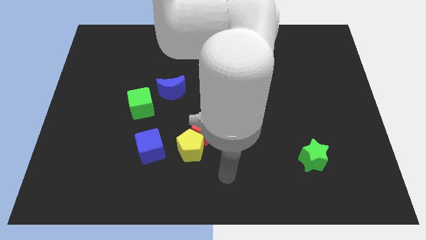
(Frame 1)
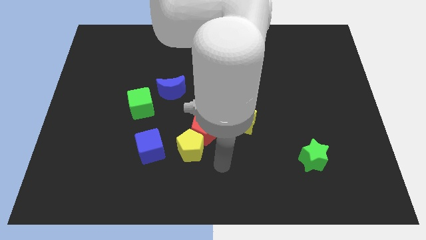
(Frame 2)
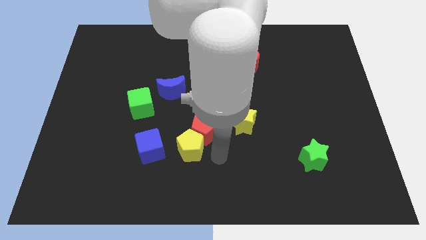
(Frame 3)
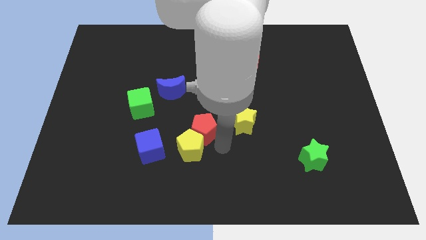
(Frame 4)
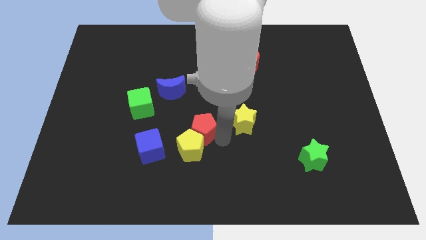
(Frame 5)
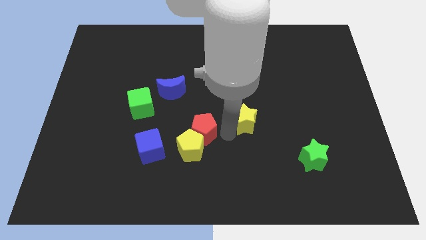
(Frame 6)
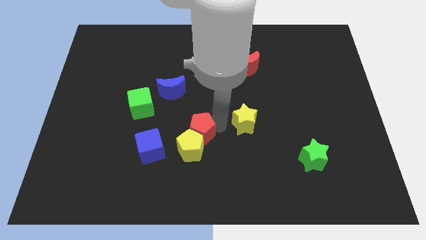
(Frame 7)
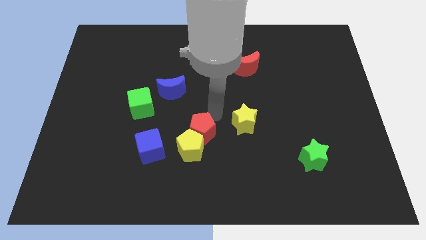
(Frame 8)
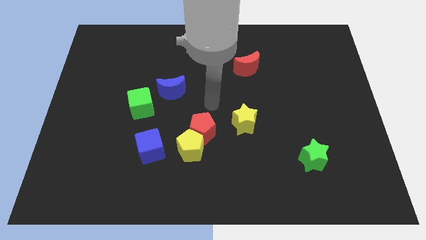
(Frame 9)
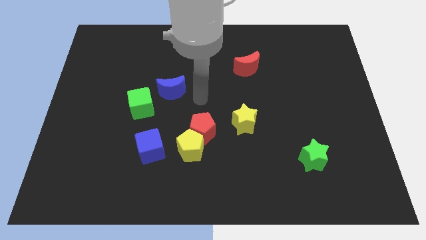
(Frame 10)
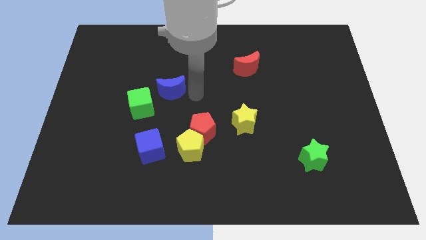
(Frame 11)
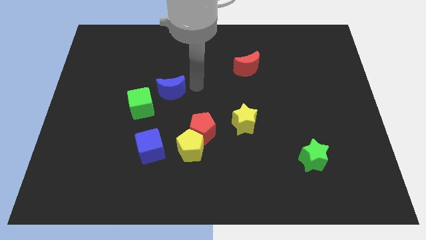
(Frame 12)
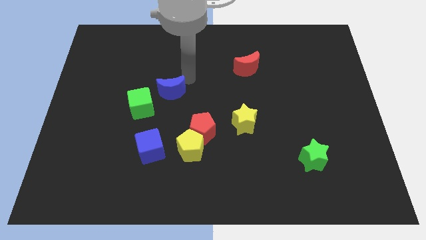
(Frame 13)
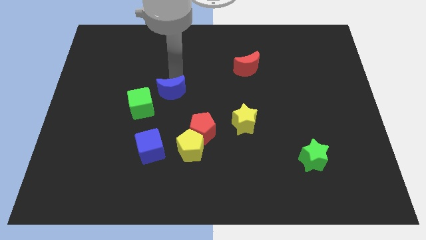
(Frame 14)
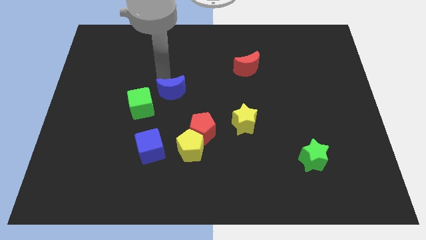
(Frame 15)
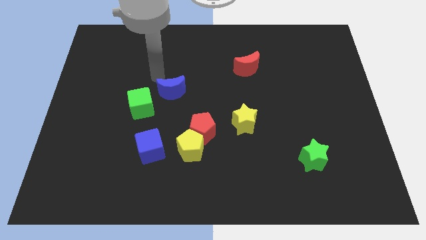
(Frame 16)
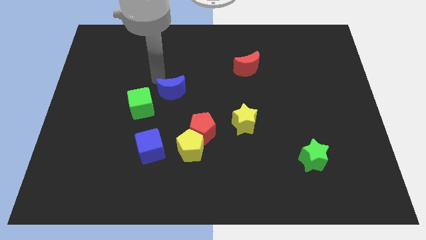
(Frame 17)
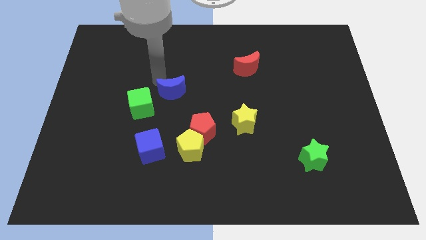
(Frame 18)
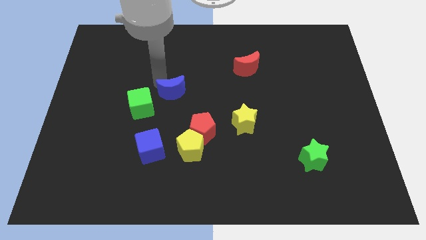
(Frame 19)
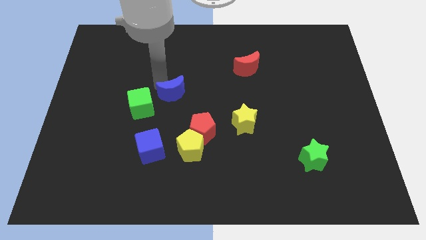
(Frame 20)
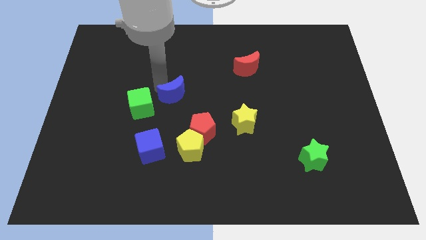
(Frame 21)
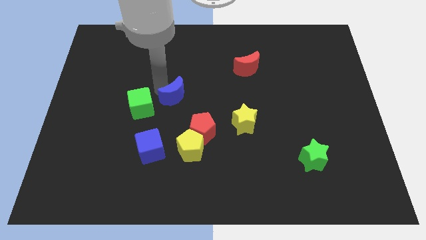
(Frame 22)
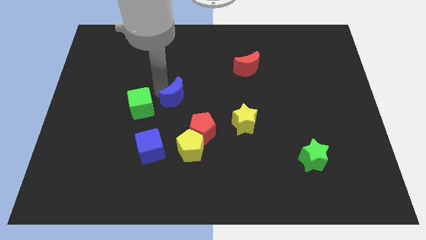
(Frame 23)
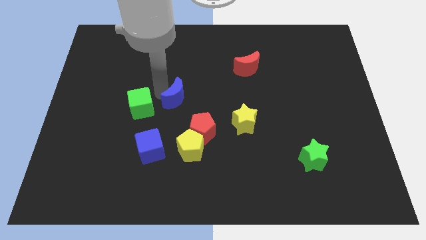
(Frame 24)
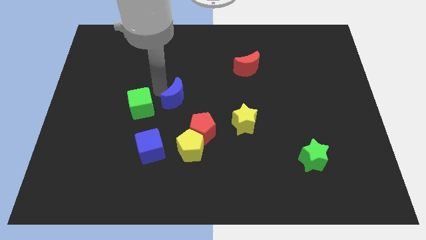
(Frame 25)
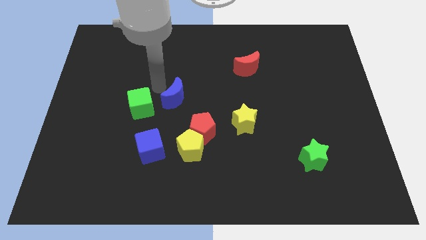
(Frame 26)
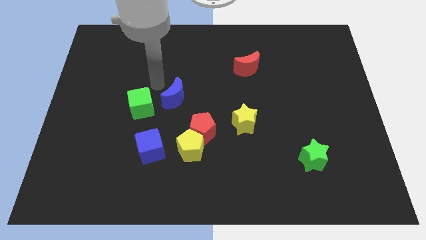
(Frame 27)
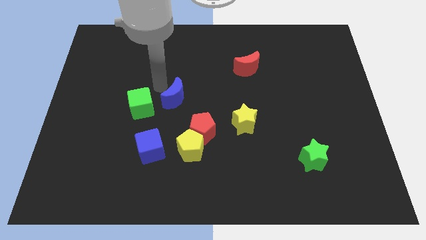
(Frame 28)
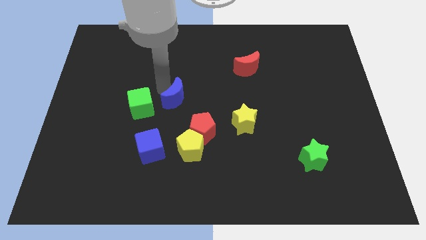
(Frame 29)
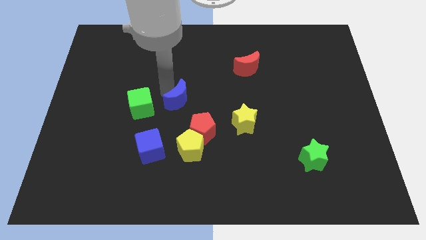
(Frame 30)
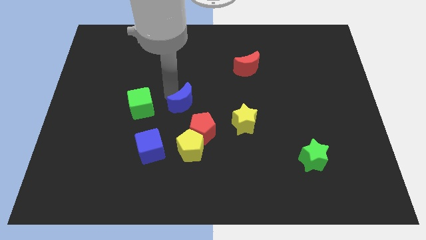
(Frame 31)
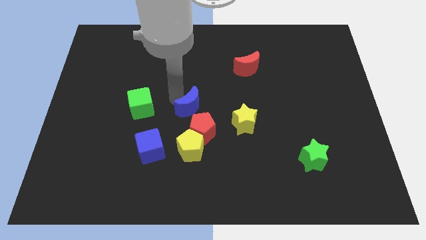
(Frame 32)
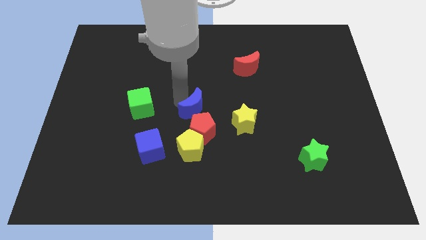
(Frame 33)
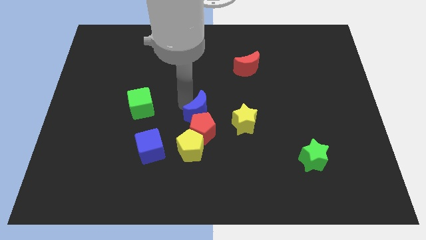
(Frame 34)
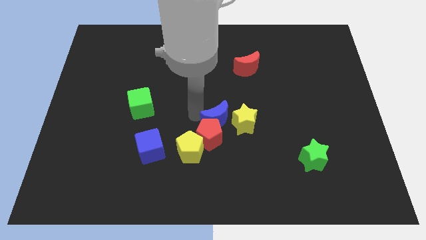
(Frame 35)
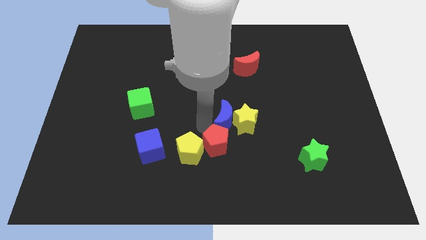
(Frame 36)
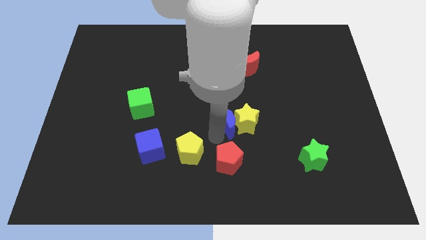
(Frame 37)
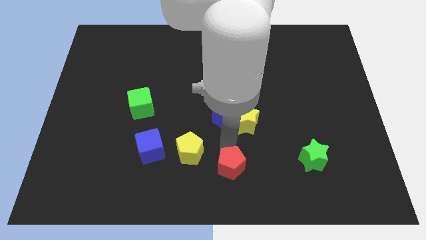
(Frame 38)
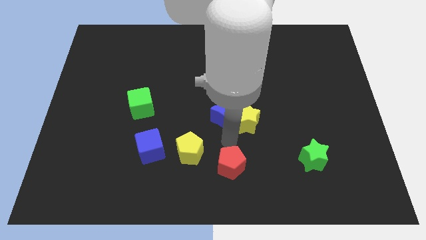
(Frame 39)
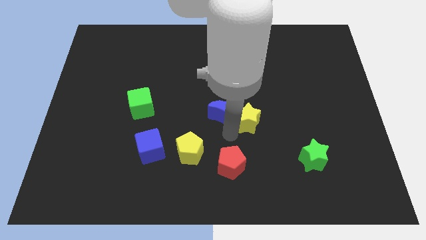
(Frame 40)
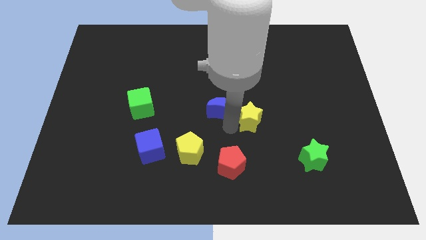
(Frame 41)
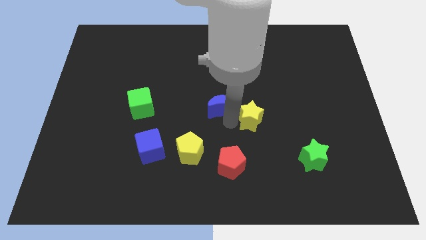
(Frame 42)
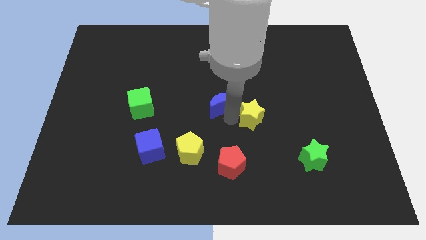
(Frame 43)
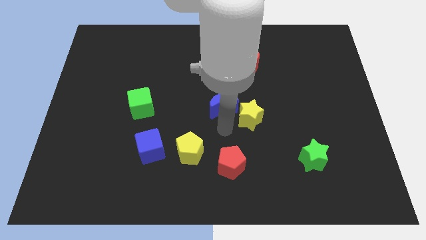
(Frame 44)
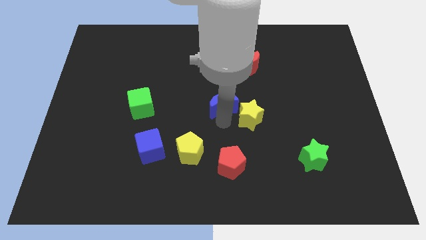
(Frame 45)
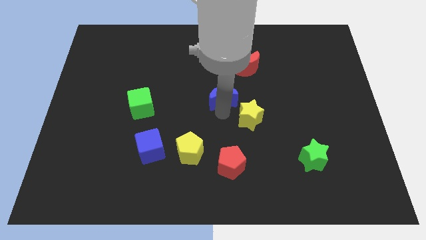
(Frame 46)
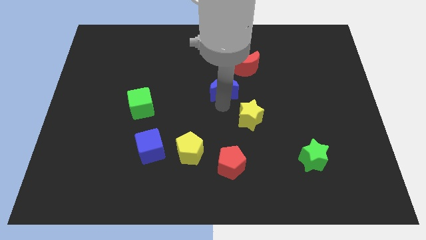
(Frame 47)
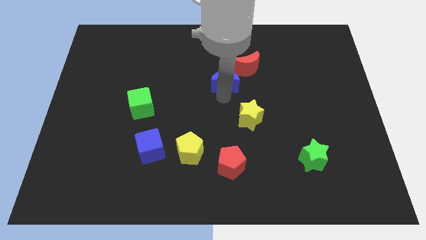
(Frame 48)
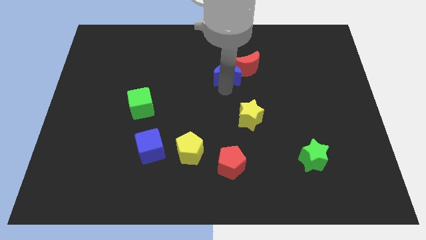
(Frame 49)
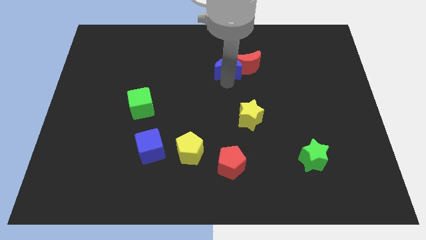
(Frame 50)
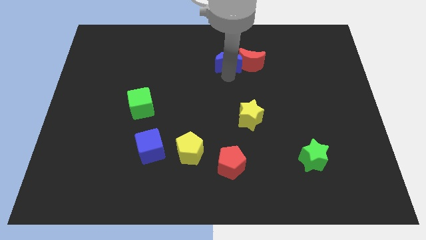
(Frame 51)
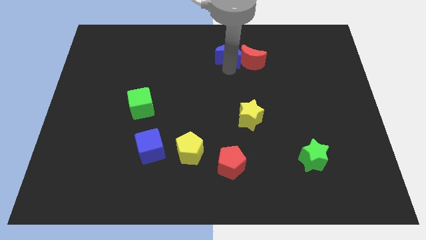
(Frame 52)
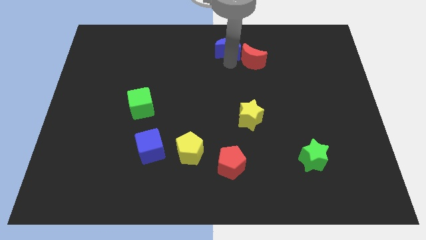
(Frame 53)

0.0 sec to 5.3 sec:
slide the blue moon to the towards your base

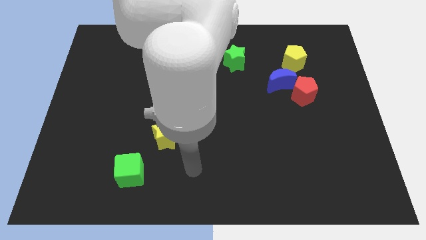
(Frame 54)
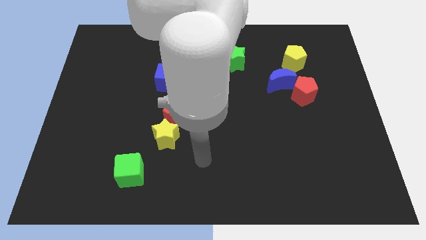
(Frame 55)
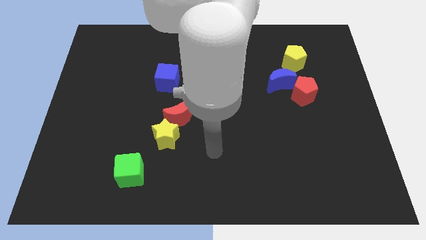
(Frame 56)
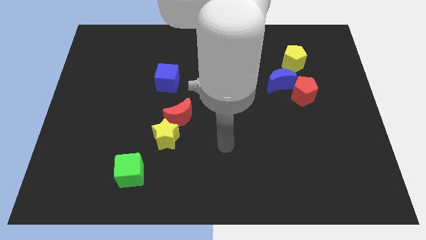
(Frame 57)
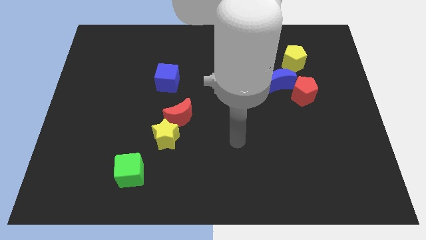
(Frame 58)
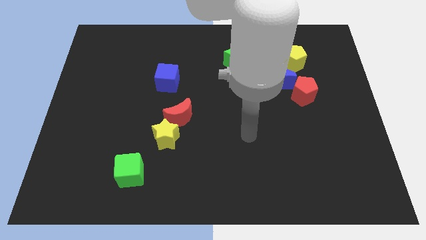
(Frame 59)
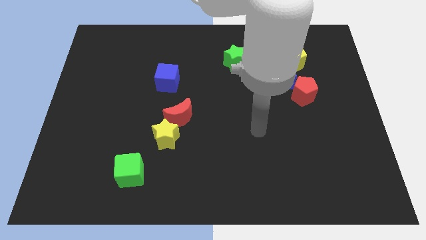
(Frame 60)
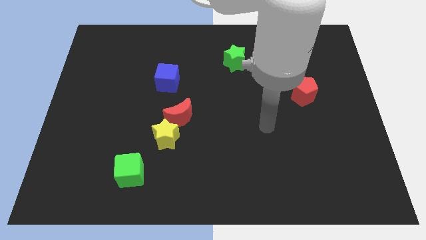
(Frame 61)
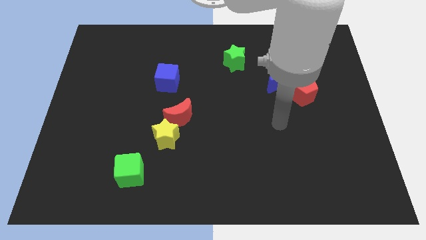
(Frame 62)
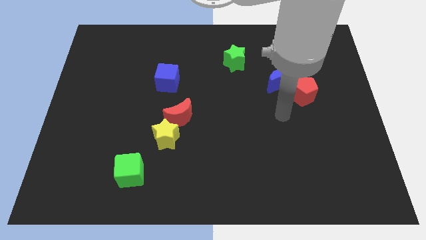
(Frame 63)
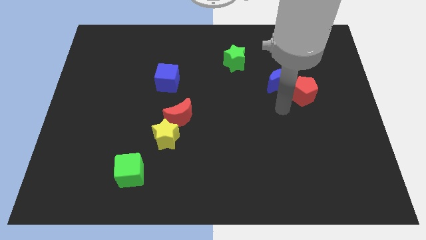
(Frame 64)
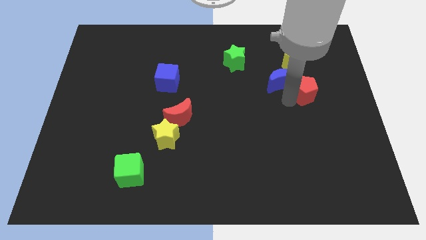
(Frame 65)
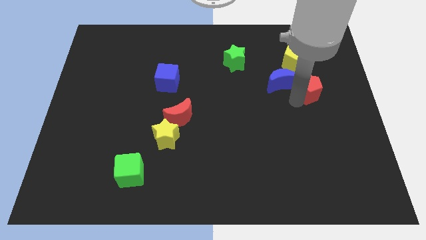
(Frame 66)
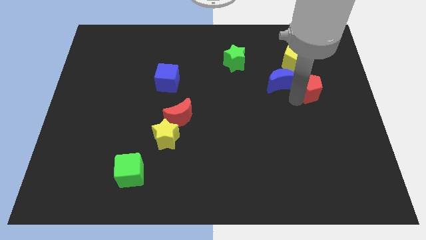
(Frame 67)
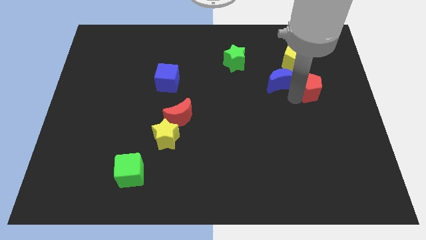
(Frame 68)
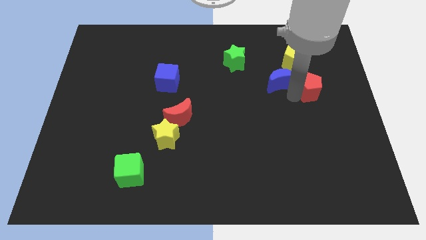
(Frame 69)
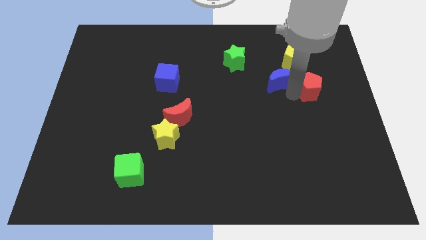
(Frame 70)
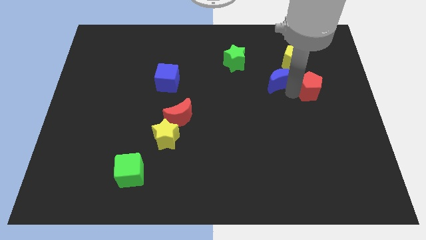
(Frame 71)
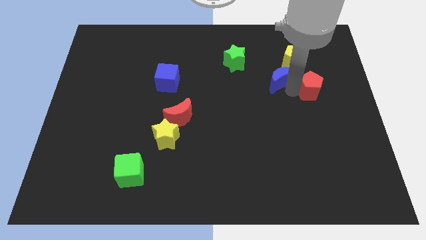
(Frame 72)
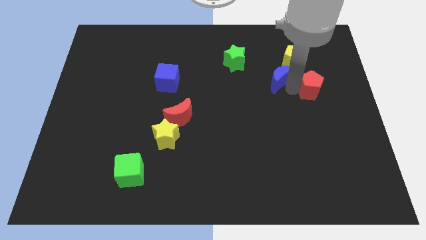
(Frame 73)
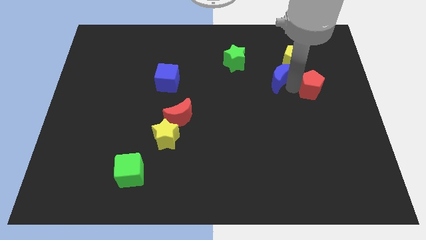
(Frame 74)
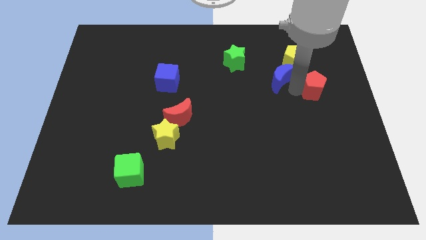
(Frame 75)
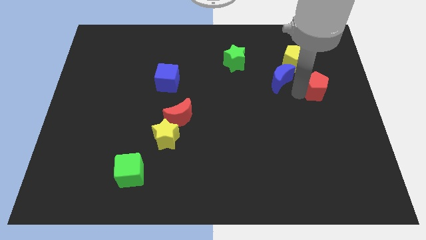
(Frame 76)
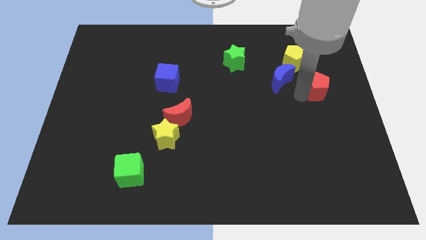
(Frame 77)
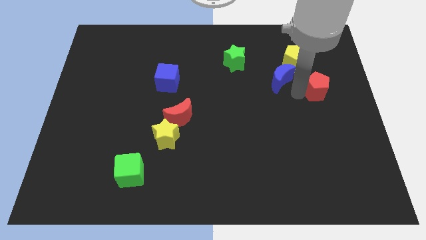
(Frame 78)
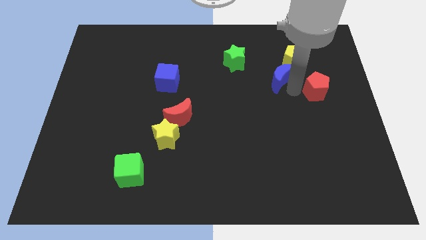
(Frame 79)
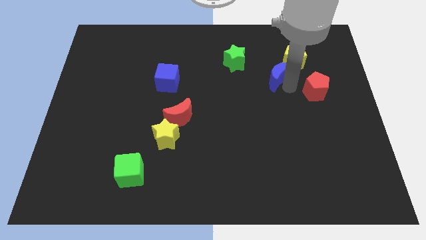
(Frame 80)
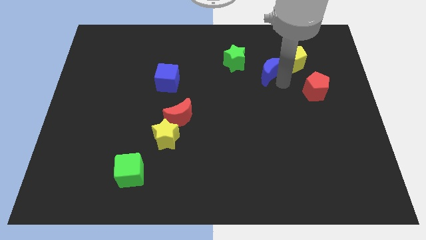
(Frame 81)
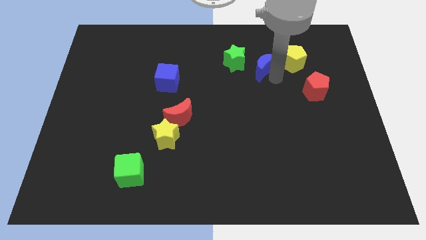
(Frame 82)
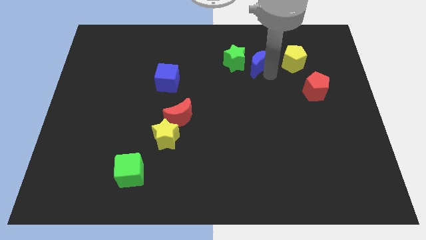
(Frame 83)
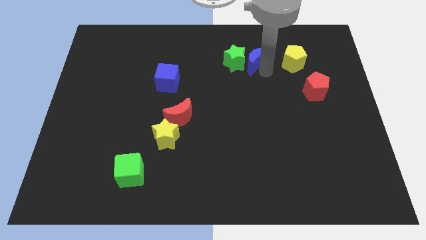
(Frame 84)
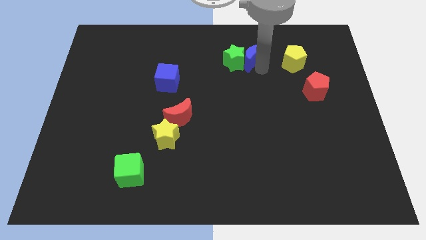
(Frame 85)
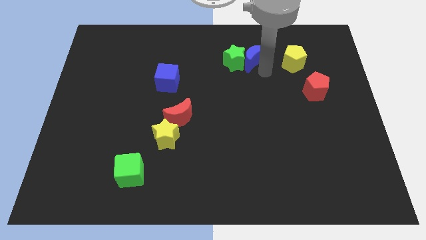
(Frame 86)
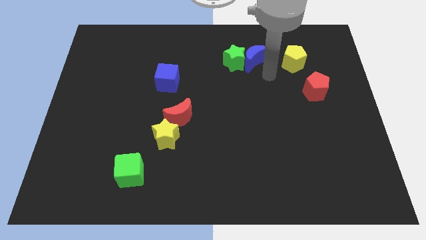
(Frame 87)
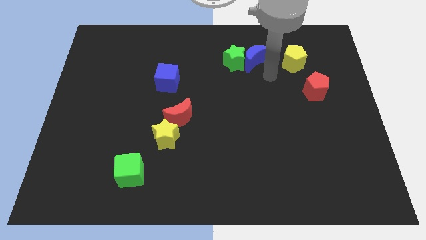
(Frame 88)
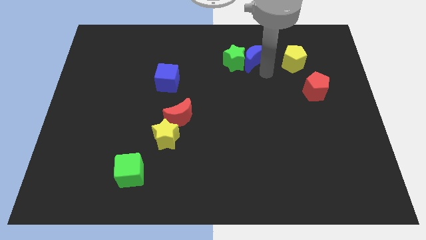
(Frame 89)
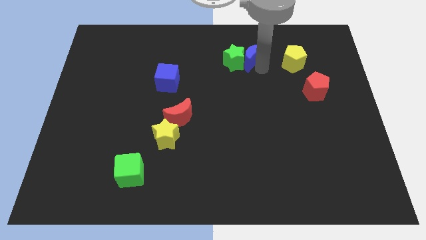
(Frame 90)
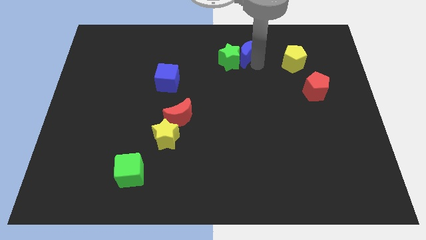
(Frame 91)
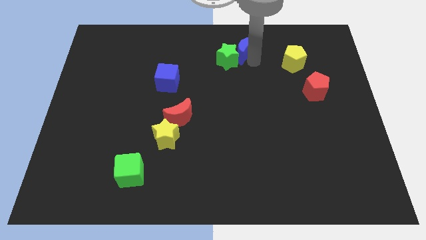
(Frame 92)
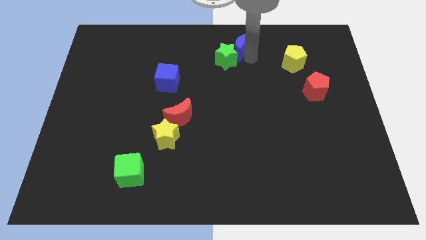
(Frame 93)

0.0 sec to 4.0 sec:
move the blue moon to the towards your base
